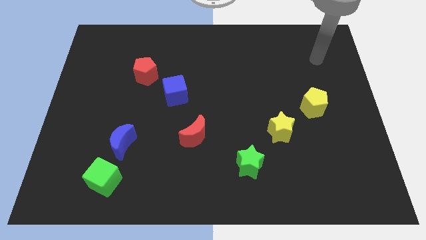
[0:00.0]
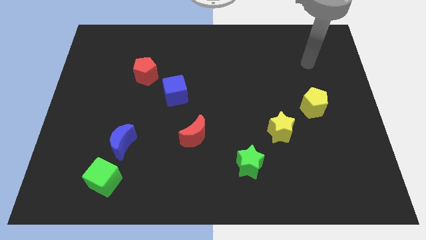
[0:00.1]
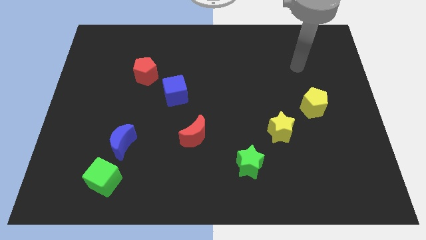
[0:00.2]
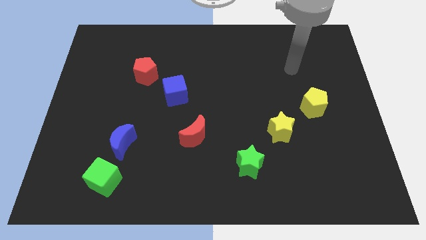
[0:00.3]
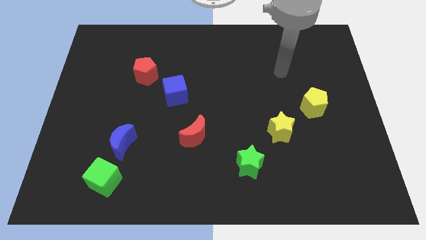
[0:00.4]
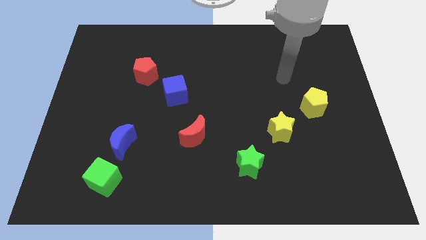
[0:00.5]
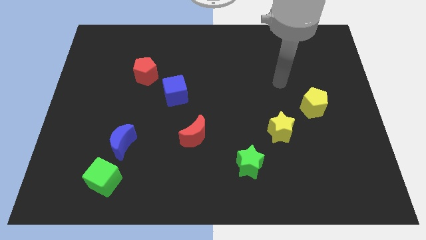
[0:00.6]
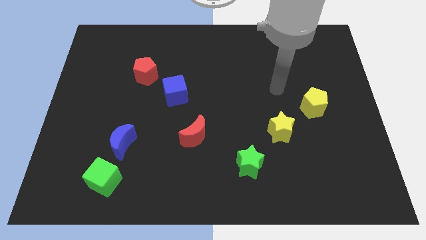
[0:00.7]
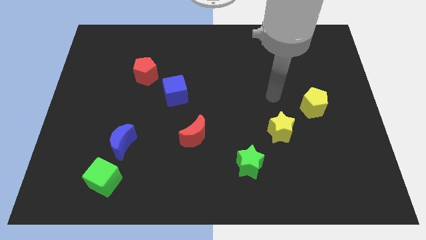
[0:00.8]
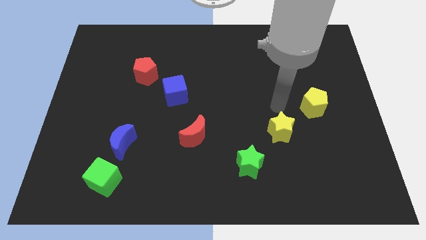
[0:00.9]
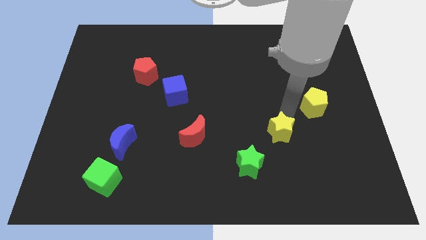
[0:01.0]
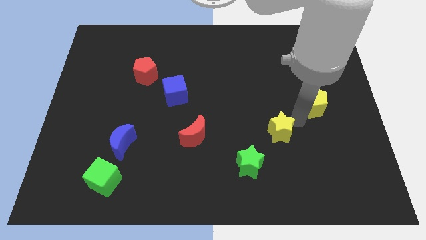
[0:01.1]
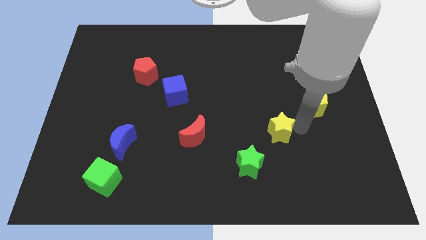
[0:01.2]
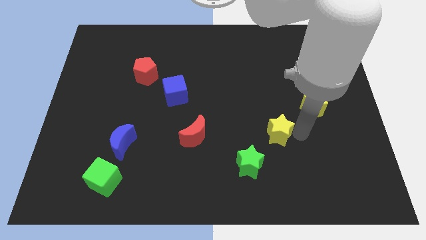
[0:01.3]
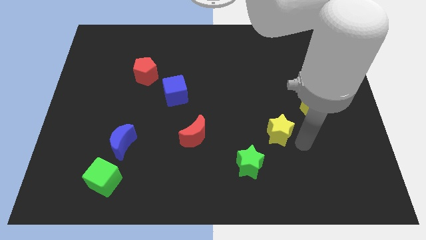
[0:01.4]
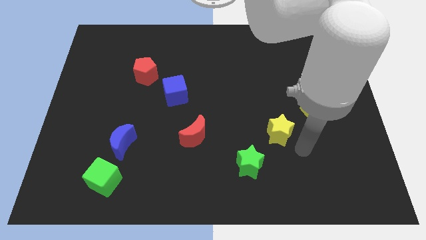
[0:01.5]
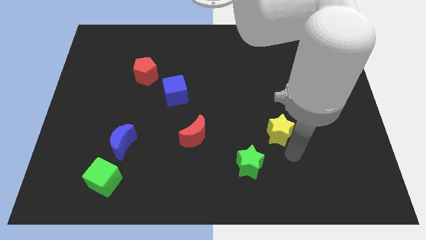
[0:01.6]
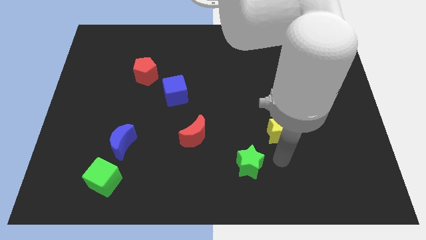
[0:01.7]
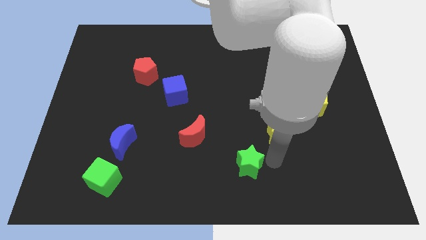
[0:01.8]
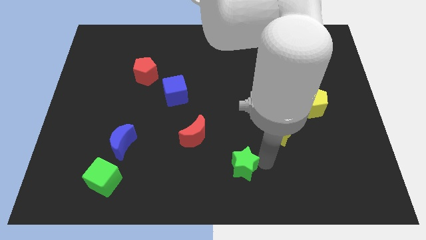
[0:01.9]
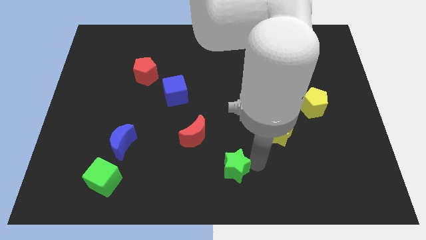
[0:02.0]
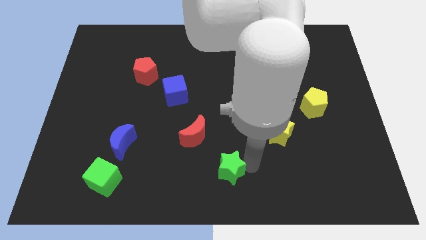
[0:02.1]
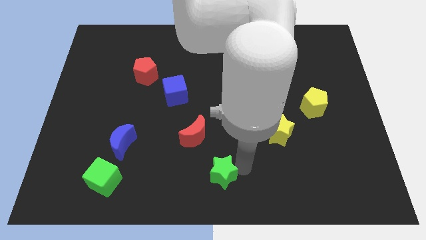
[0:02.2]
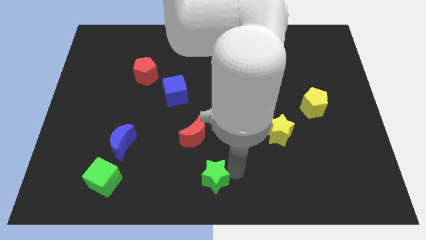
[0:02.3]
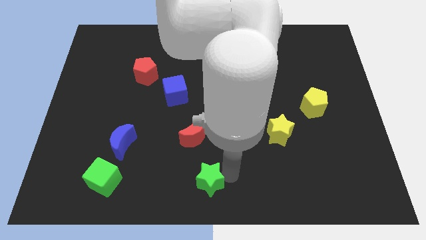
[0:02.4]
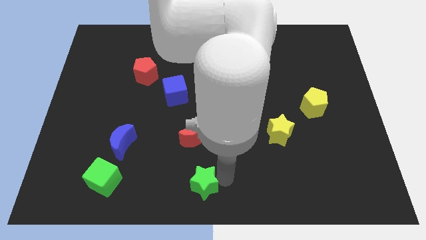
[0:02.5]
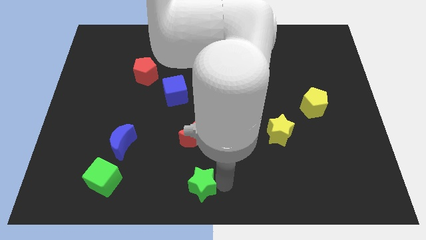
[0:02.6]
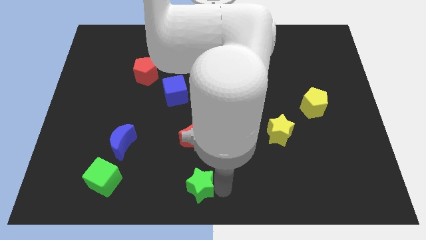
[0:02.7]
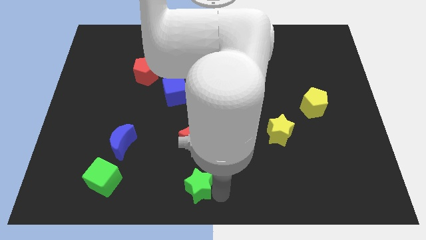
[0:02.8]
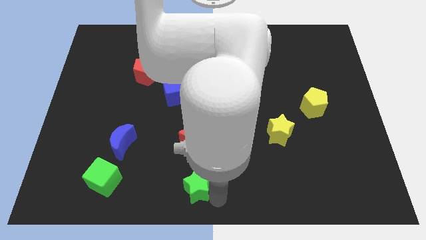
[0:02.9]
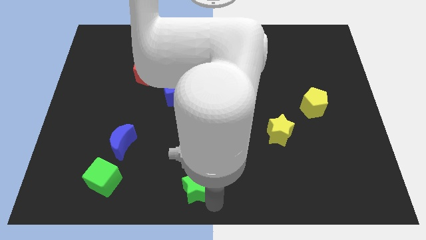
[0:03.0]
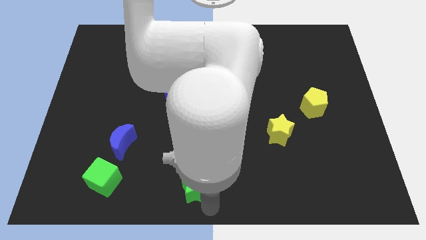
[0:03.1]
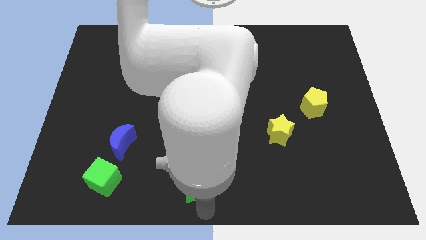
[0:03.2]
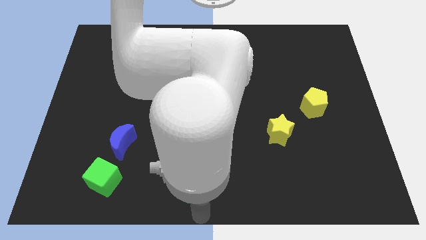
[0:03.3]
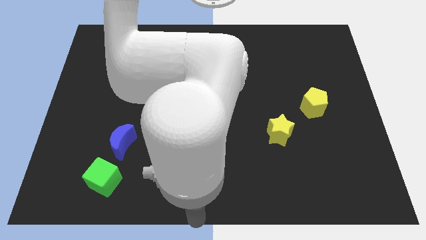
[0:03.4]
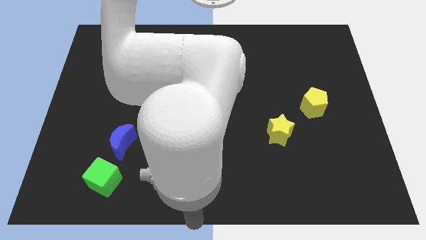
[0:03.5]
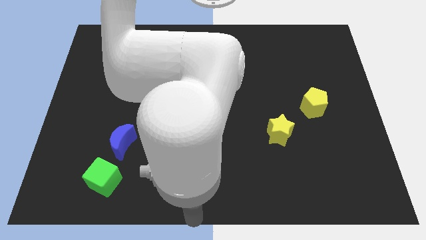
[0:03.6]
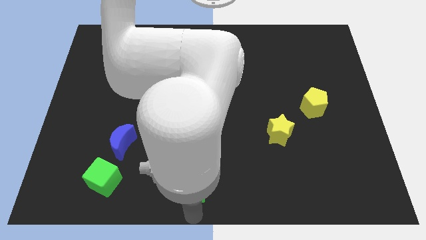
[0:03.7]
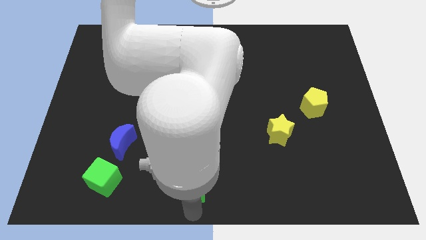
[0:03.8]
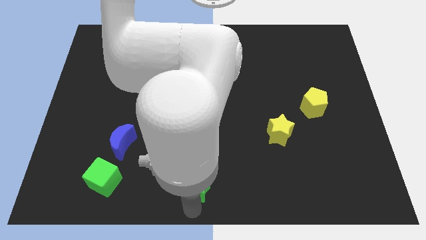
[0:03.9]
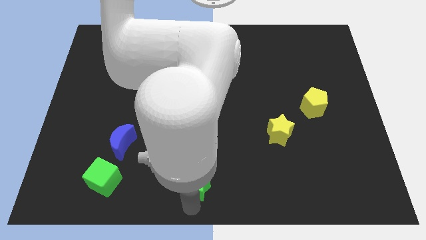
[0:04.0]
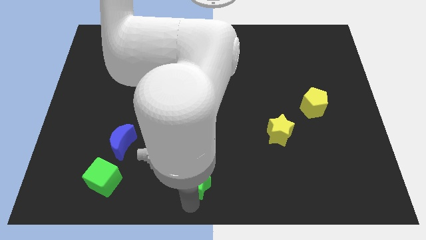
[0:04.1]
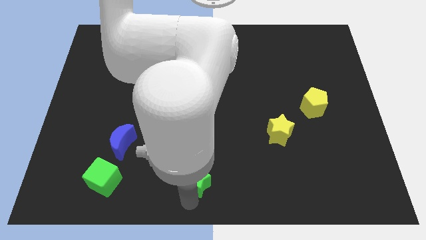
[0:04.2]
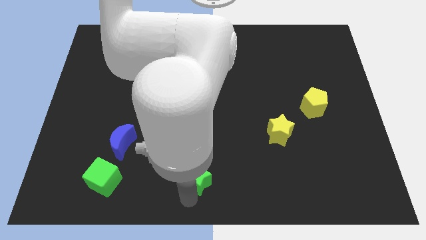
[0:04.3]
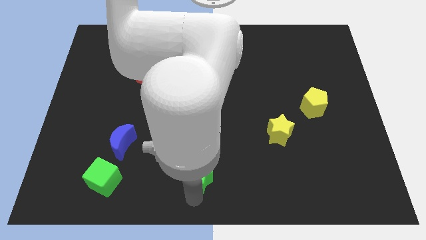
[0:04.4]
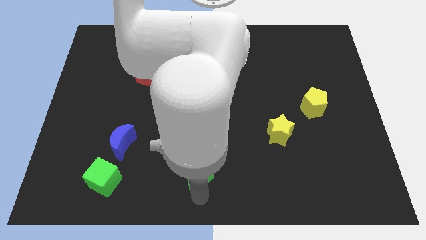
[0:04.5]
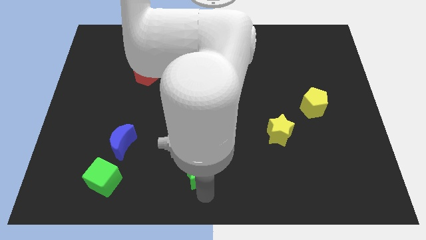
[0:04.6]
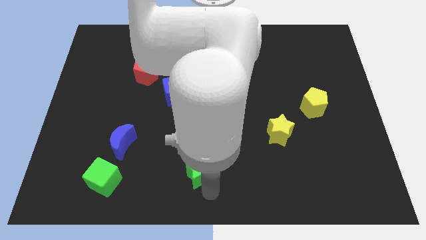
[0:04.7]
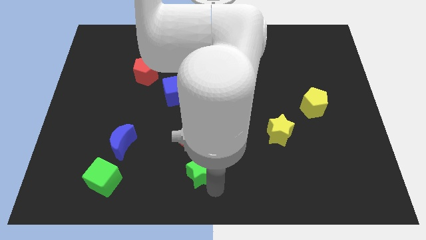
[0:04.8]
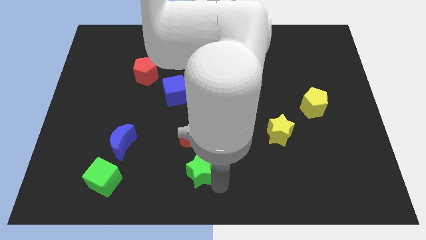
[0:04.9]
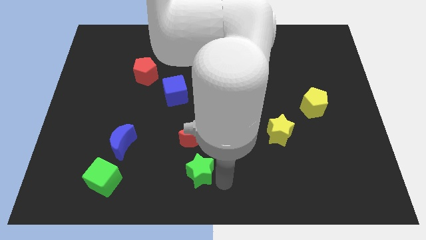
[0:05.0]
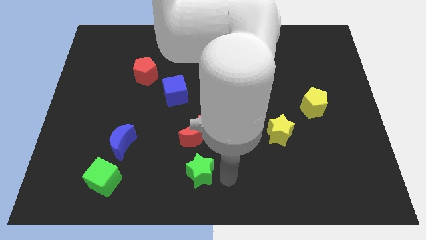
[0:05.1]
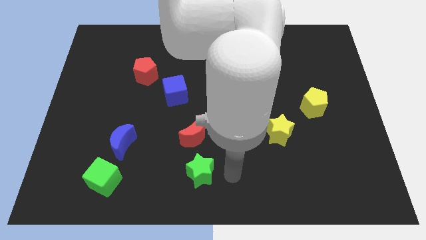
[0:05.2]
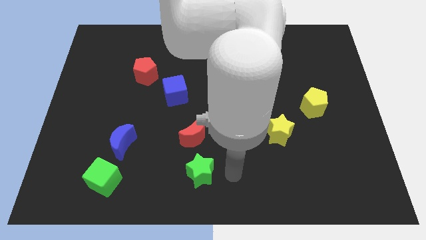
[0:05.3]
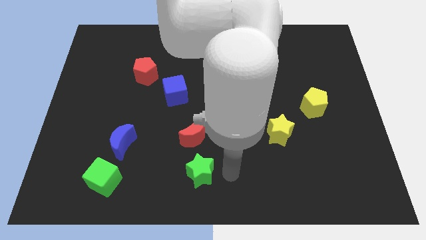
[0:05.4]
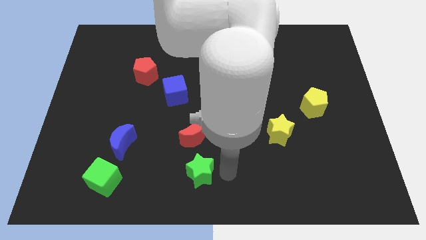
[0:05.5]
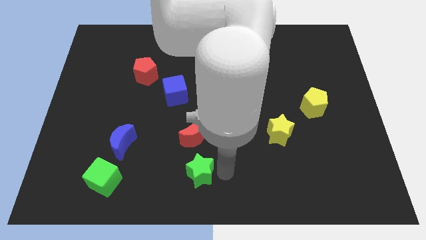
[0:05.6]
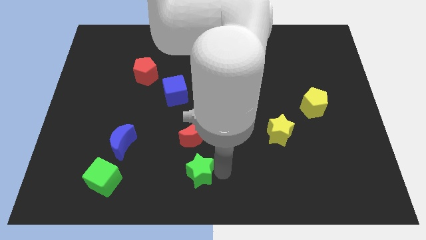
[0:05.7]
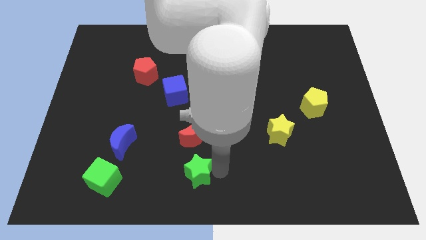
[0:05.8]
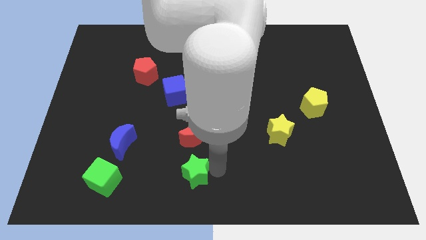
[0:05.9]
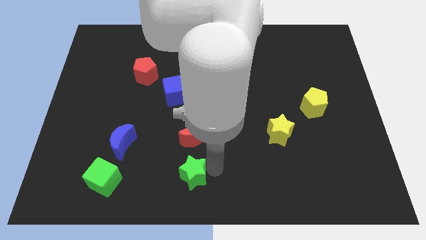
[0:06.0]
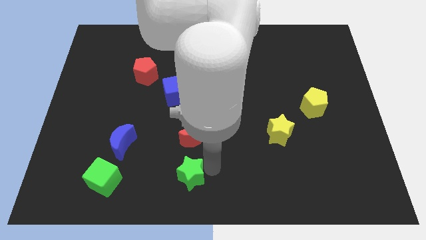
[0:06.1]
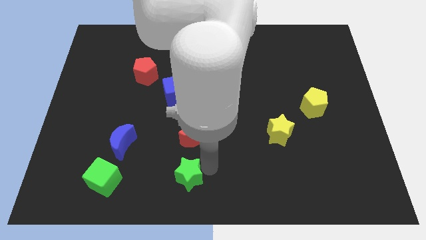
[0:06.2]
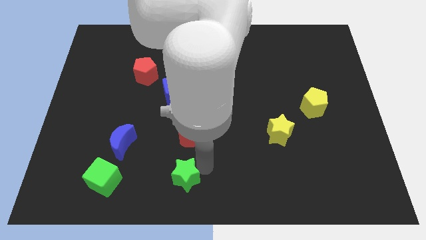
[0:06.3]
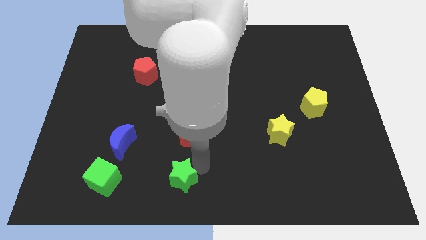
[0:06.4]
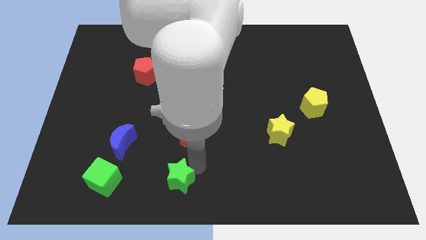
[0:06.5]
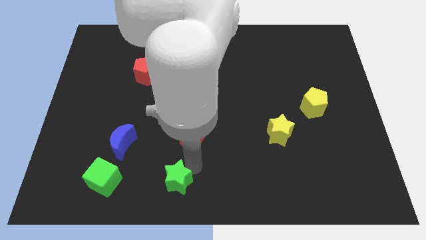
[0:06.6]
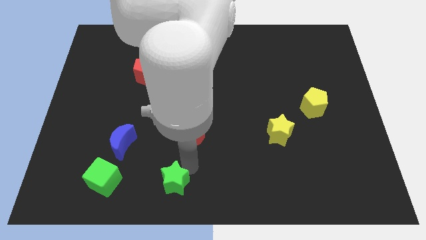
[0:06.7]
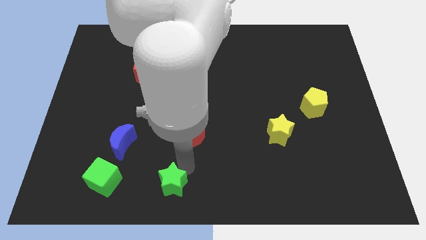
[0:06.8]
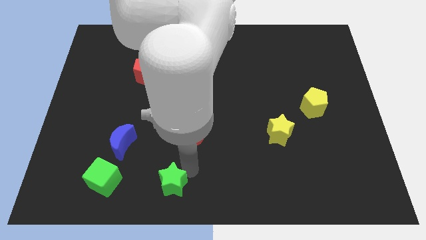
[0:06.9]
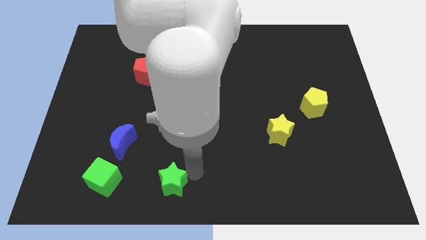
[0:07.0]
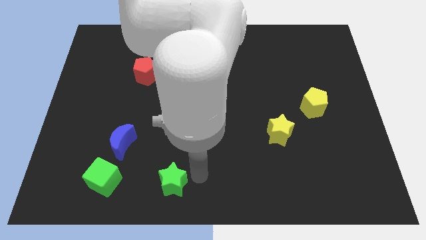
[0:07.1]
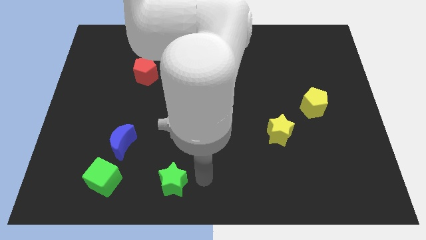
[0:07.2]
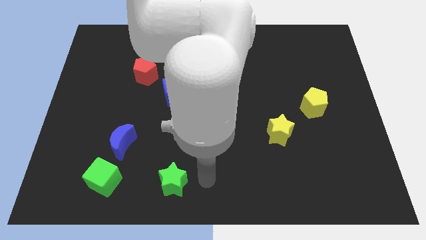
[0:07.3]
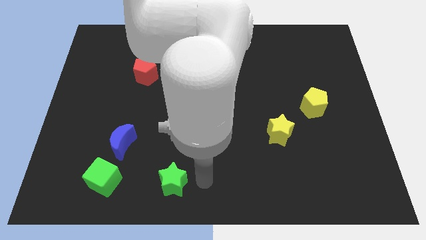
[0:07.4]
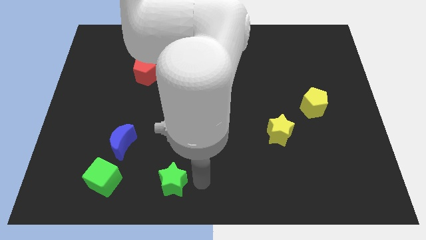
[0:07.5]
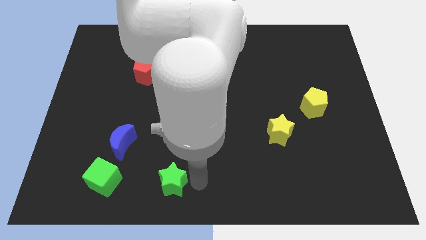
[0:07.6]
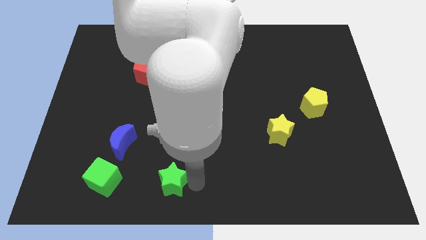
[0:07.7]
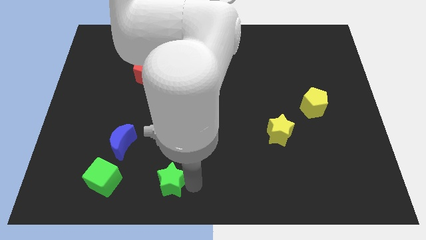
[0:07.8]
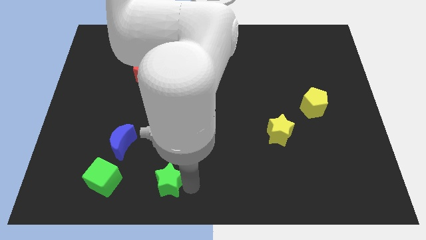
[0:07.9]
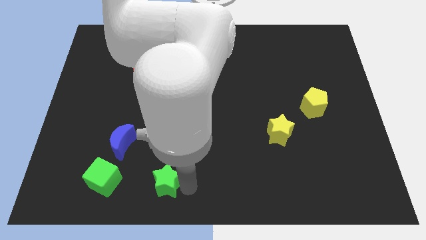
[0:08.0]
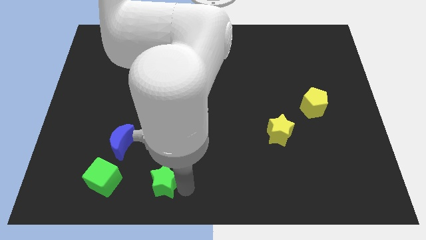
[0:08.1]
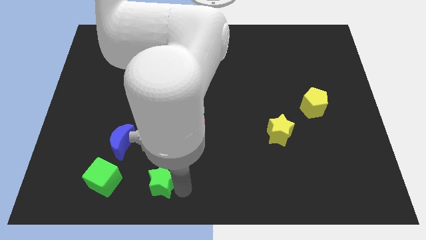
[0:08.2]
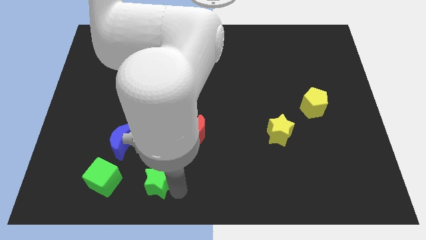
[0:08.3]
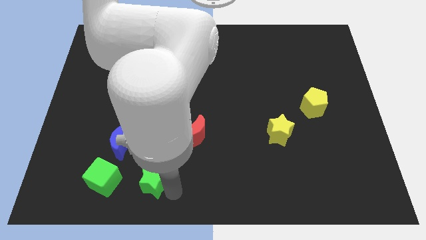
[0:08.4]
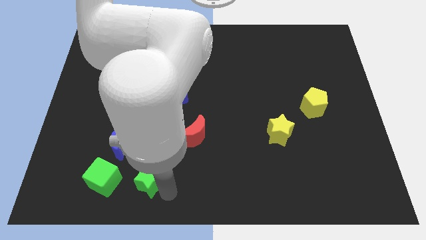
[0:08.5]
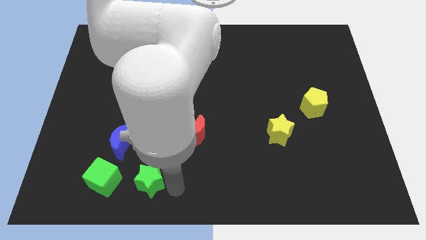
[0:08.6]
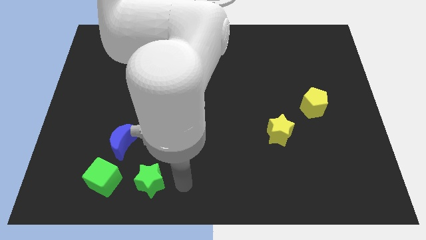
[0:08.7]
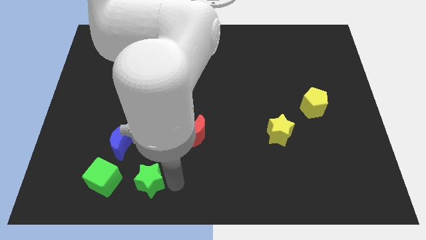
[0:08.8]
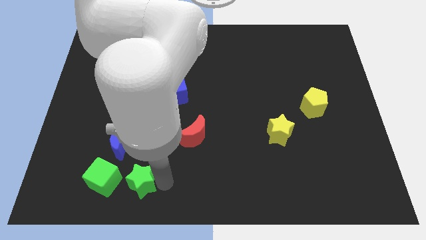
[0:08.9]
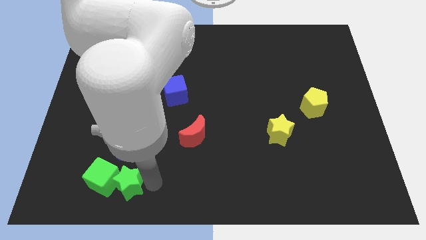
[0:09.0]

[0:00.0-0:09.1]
move the green star next to the green cube
